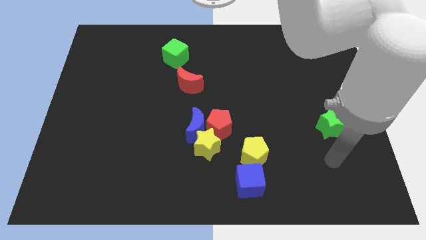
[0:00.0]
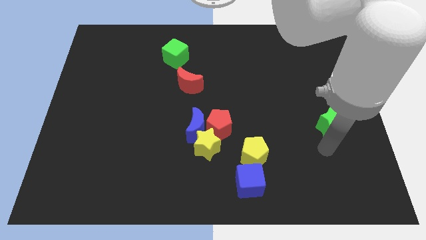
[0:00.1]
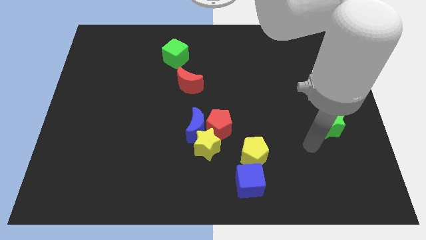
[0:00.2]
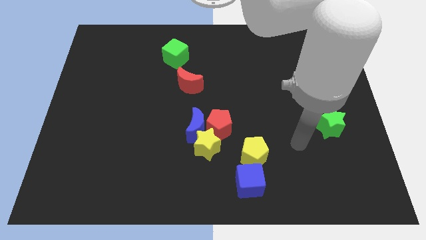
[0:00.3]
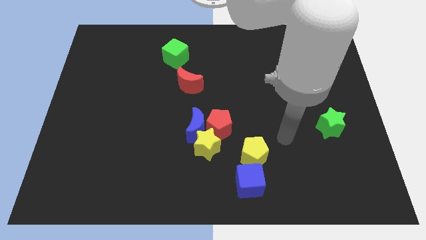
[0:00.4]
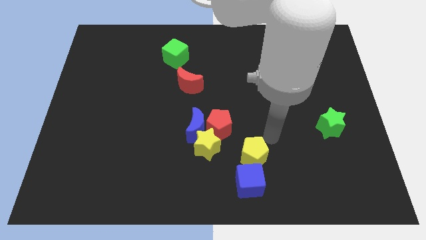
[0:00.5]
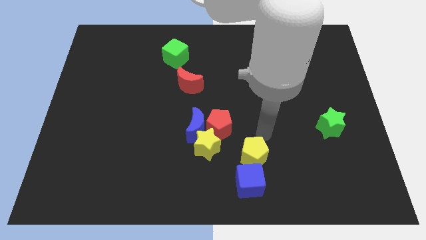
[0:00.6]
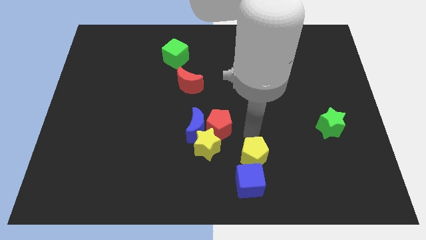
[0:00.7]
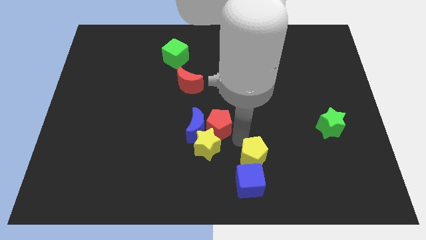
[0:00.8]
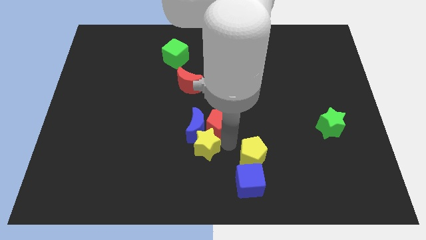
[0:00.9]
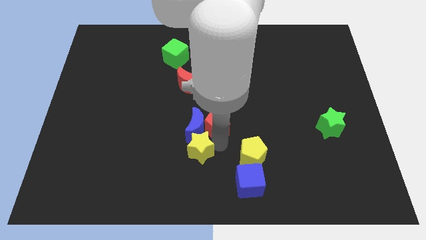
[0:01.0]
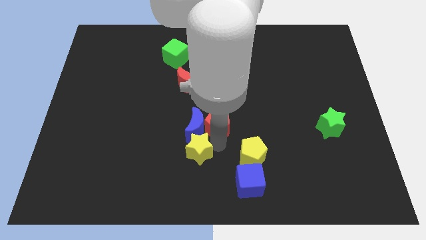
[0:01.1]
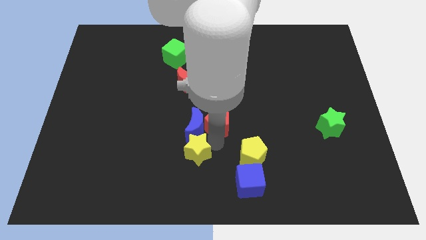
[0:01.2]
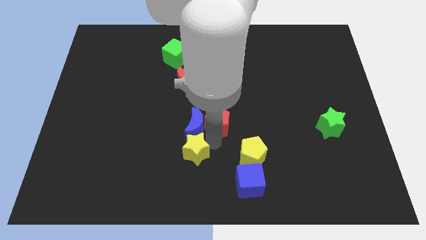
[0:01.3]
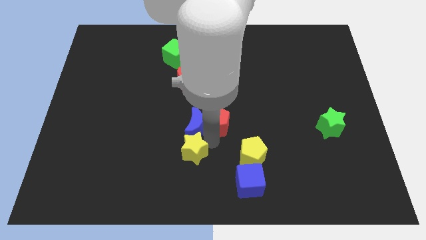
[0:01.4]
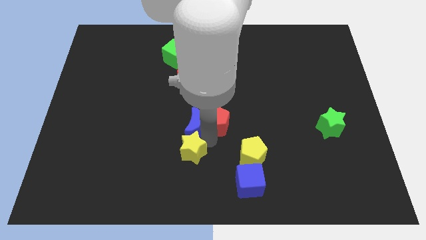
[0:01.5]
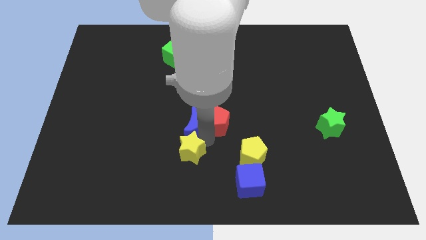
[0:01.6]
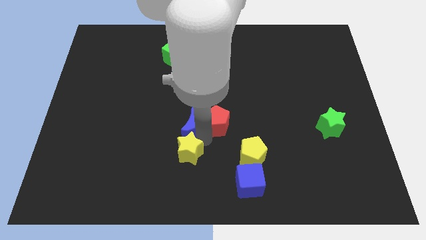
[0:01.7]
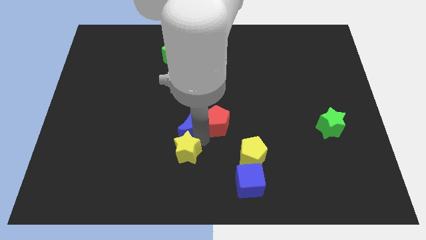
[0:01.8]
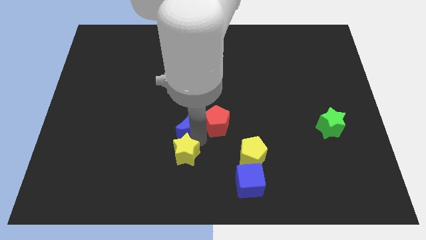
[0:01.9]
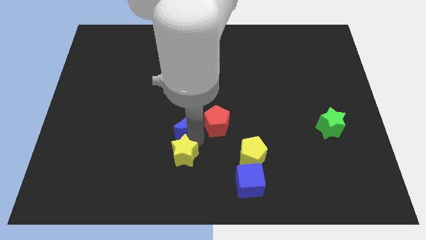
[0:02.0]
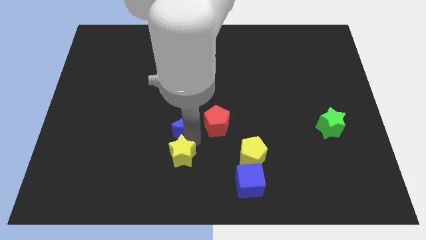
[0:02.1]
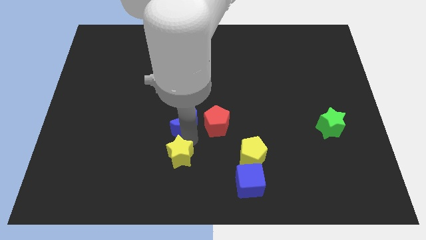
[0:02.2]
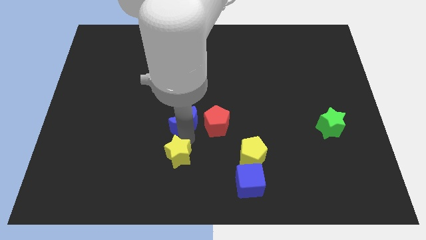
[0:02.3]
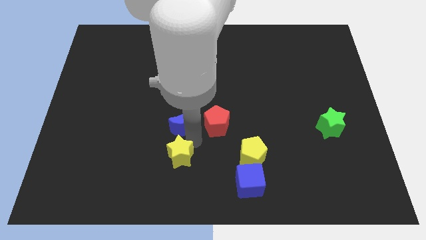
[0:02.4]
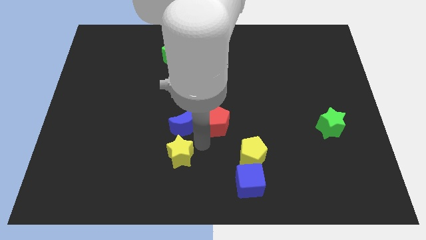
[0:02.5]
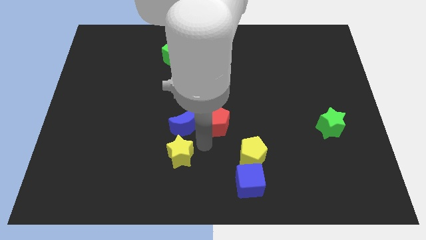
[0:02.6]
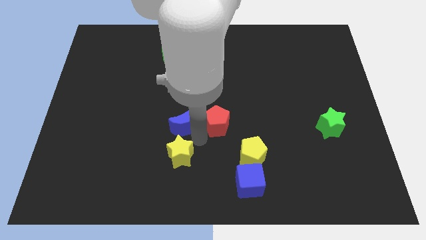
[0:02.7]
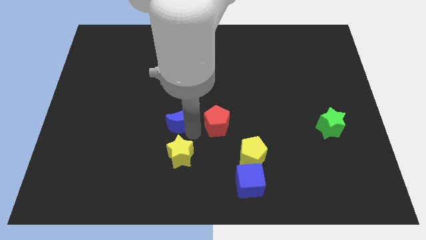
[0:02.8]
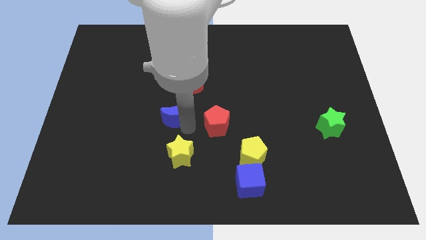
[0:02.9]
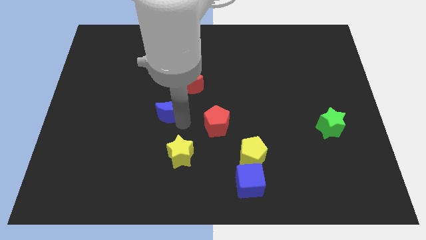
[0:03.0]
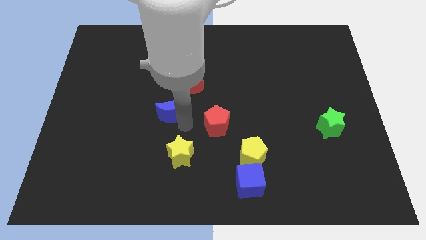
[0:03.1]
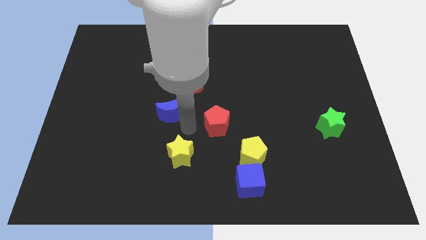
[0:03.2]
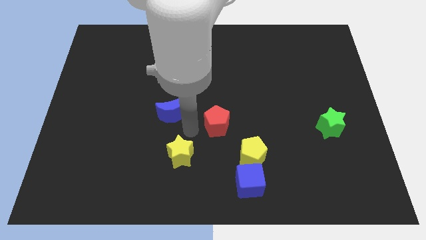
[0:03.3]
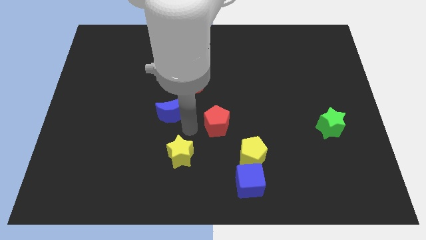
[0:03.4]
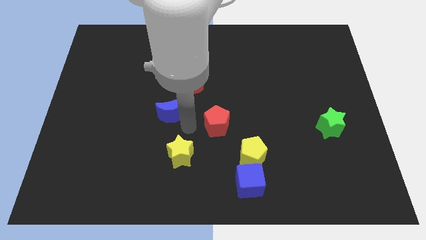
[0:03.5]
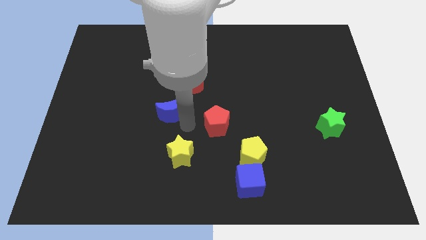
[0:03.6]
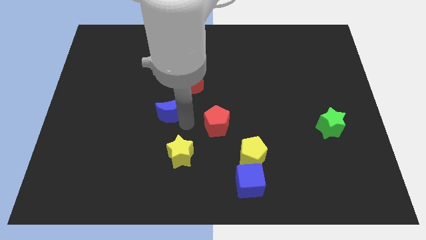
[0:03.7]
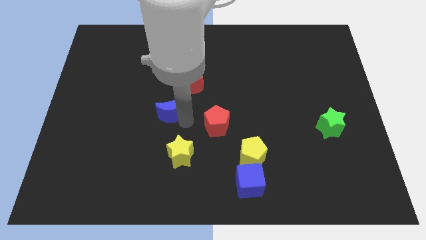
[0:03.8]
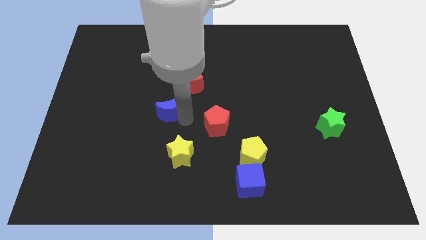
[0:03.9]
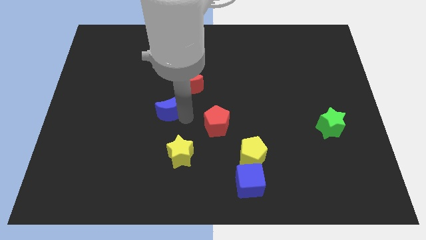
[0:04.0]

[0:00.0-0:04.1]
separate the blue moon from the red pentagon and yellow star

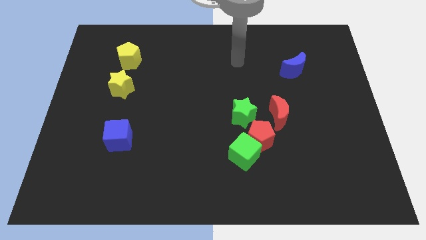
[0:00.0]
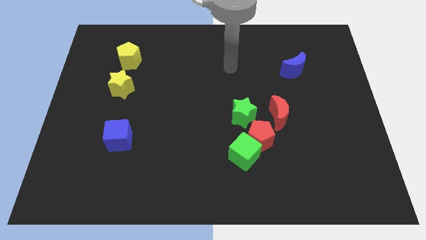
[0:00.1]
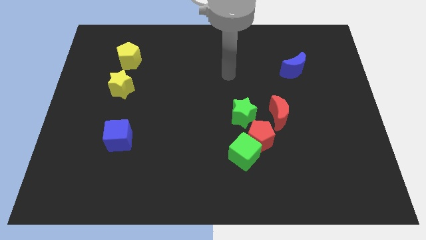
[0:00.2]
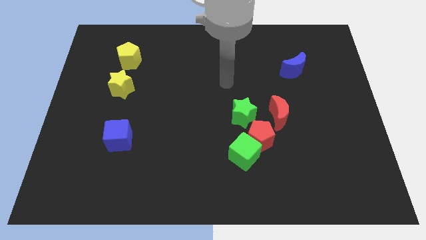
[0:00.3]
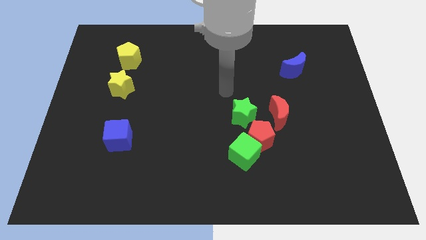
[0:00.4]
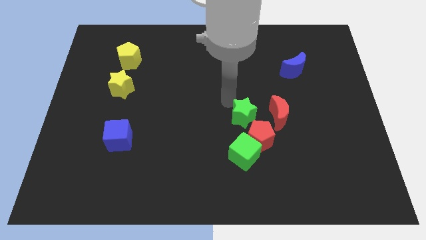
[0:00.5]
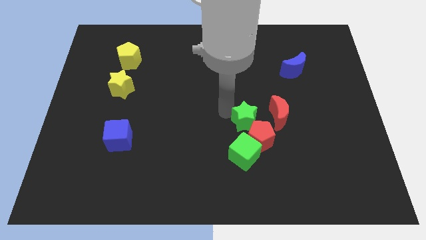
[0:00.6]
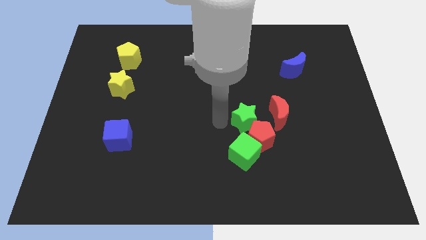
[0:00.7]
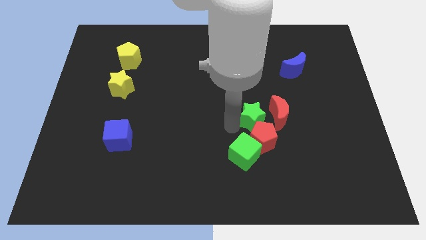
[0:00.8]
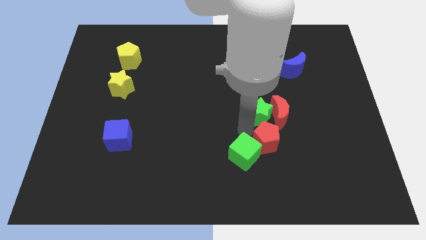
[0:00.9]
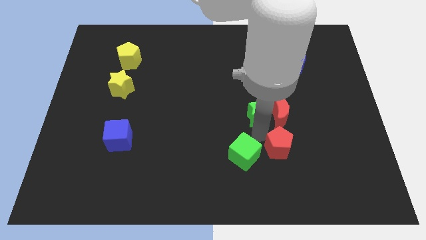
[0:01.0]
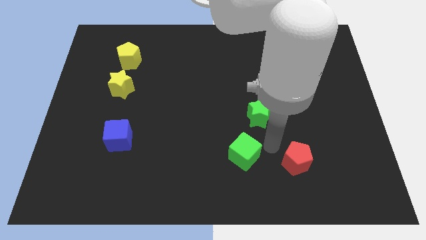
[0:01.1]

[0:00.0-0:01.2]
move the green cube away from the red pentagon

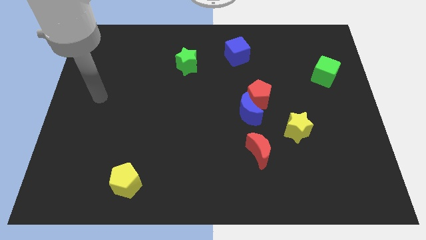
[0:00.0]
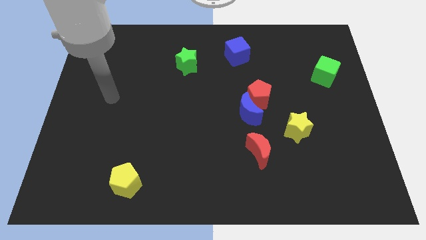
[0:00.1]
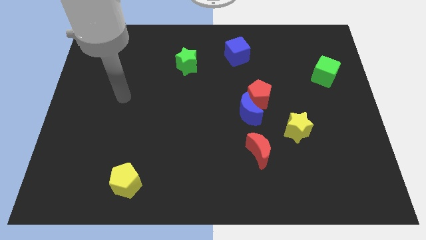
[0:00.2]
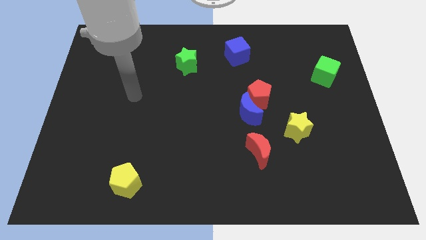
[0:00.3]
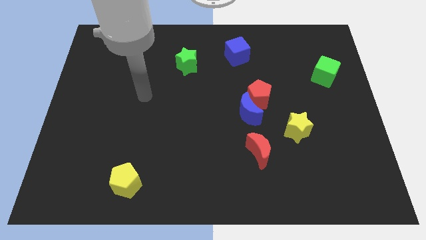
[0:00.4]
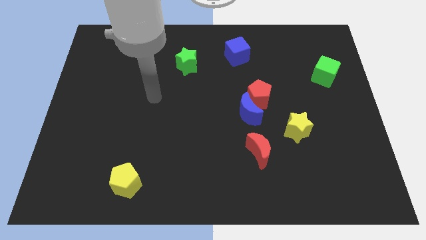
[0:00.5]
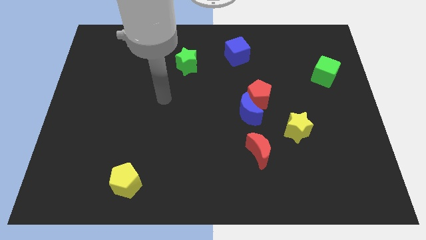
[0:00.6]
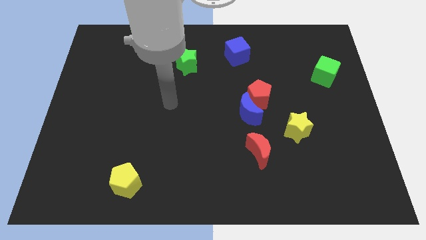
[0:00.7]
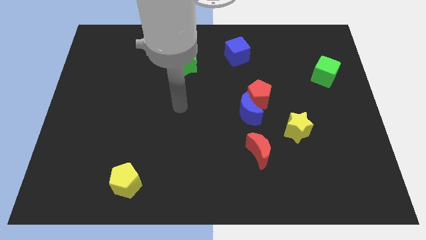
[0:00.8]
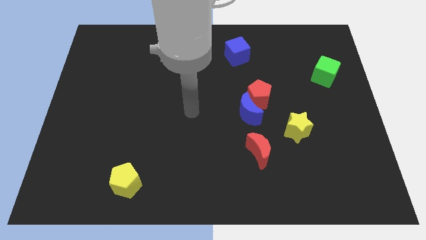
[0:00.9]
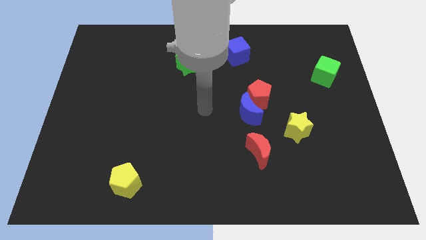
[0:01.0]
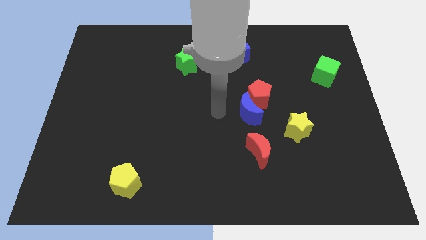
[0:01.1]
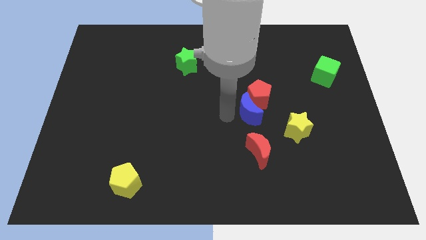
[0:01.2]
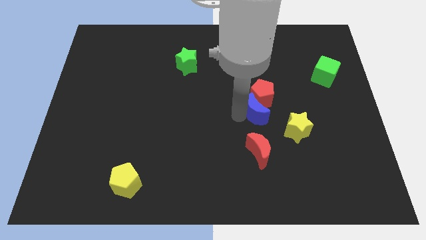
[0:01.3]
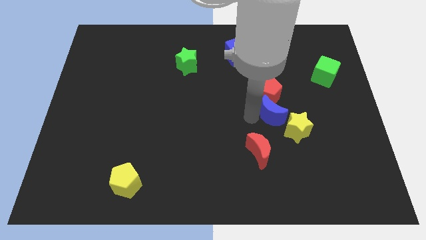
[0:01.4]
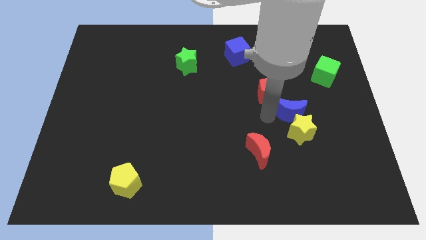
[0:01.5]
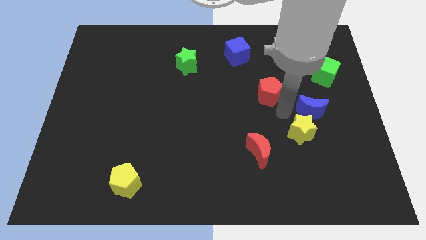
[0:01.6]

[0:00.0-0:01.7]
pull the red pentagon apart from the blue moon

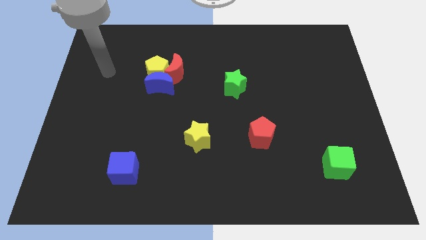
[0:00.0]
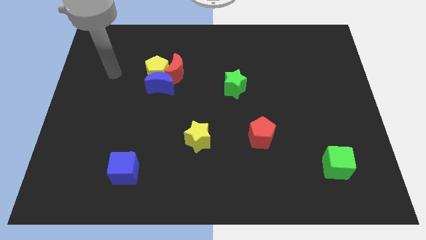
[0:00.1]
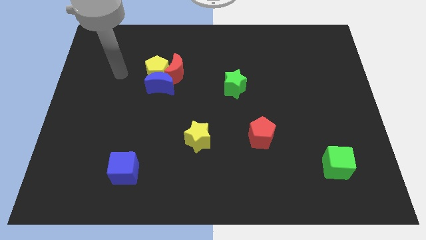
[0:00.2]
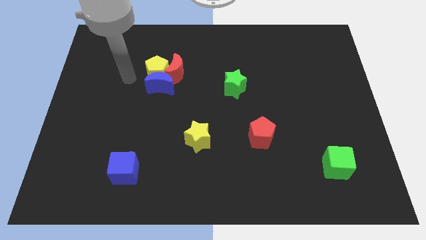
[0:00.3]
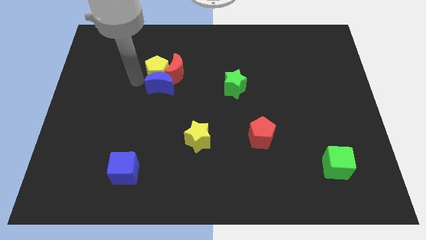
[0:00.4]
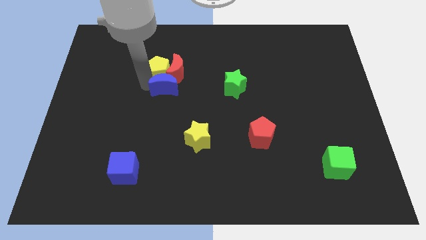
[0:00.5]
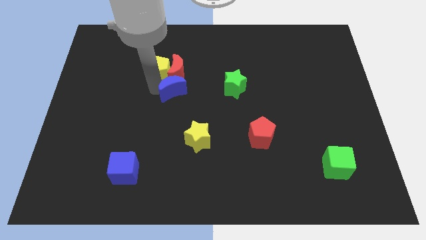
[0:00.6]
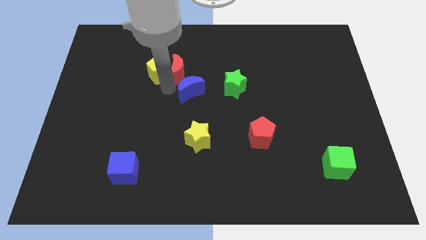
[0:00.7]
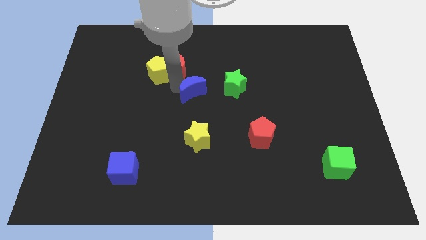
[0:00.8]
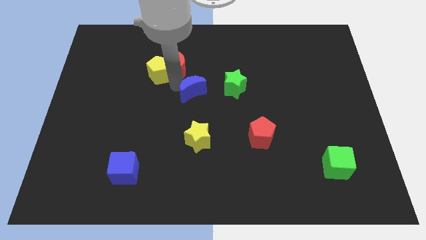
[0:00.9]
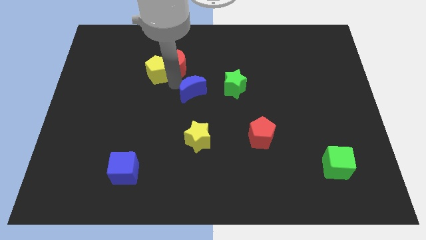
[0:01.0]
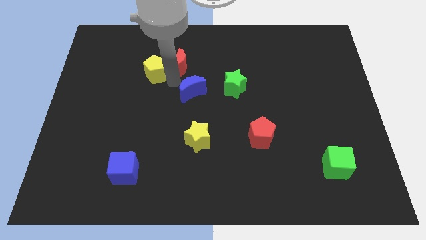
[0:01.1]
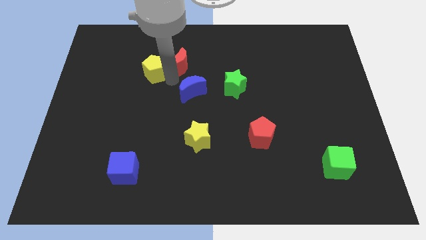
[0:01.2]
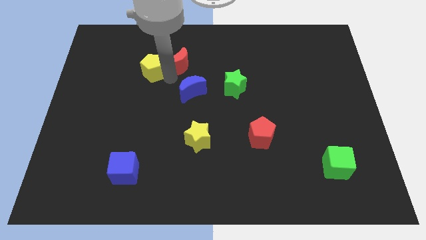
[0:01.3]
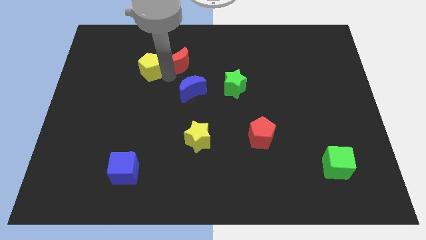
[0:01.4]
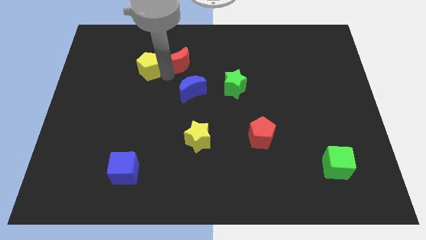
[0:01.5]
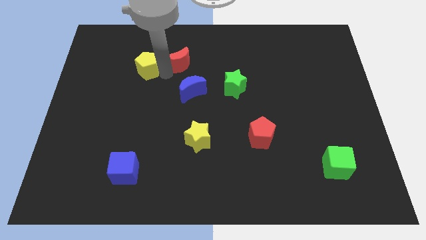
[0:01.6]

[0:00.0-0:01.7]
separate the yellow pentagon from the blue moon and red moon

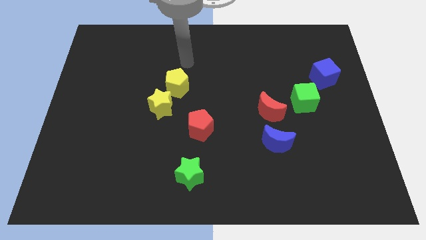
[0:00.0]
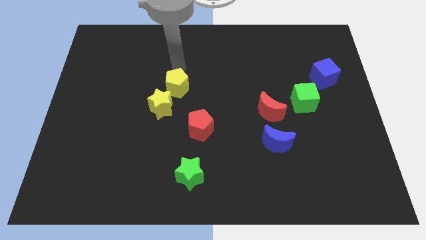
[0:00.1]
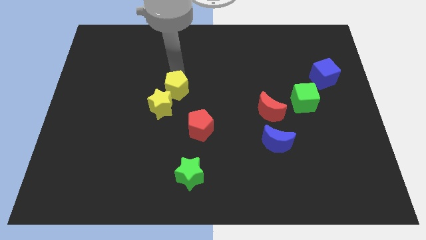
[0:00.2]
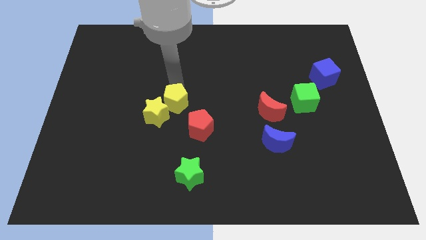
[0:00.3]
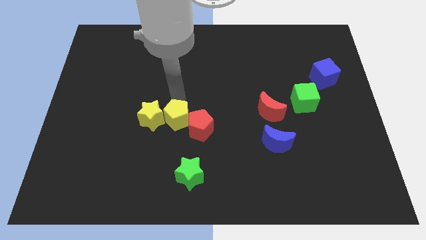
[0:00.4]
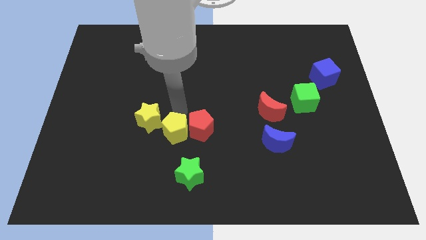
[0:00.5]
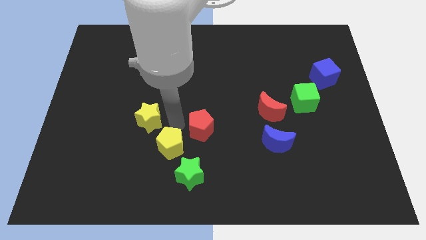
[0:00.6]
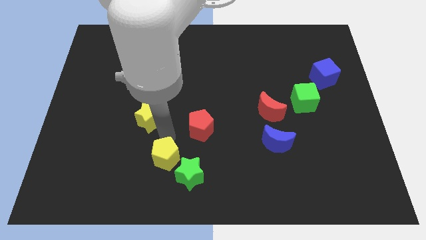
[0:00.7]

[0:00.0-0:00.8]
pull the yellow star apart from the yellow pentagon
